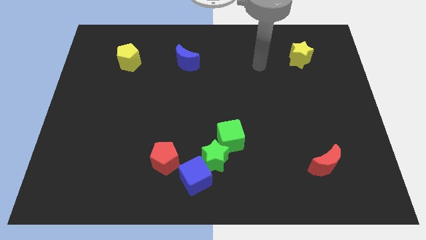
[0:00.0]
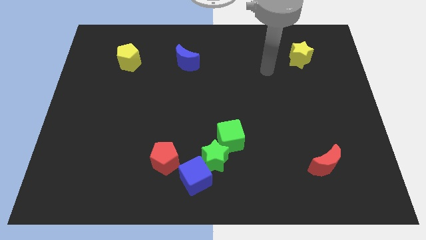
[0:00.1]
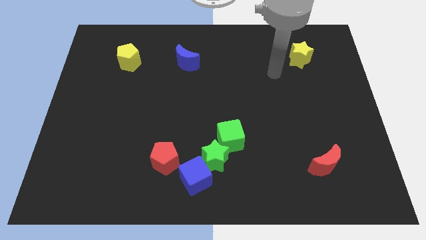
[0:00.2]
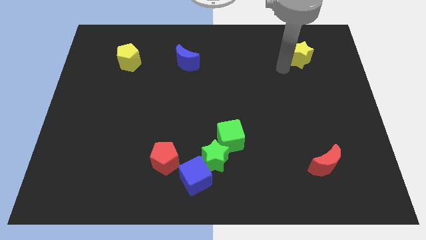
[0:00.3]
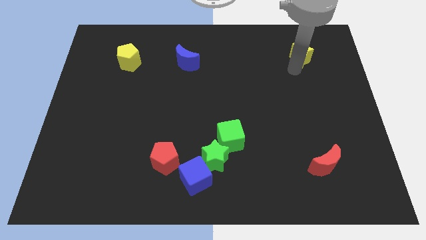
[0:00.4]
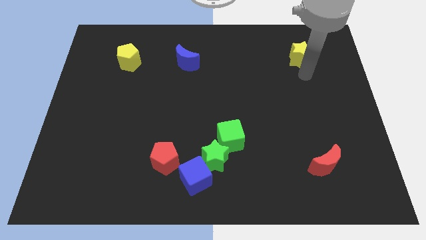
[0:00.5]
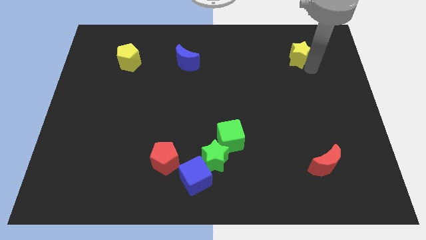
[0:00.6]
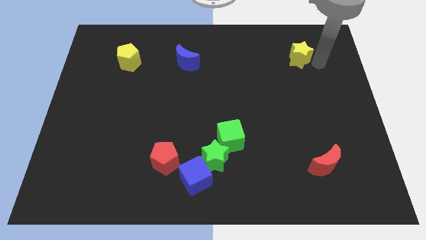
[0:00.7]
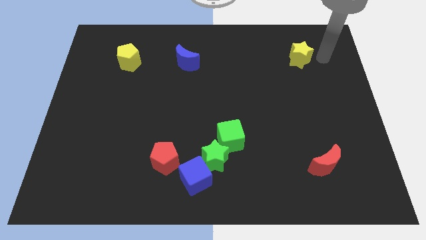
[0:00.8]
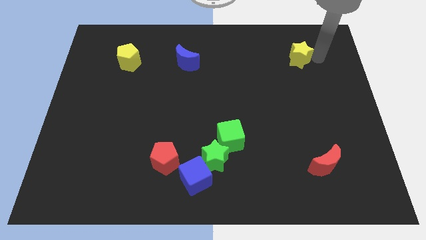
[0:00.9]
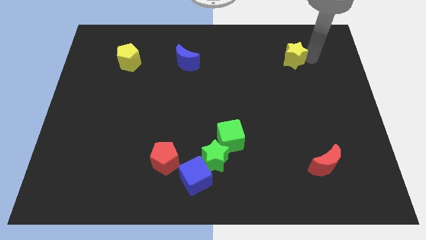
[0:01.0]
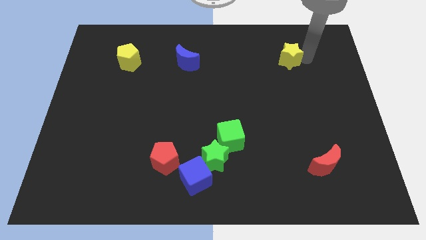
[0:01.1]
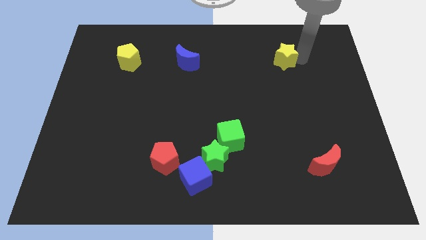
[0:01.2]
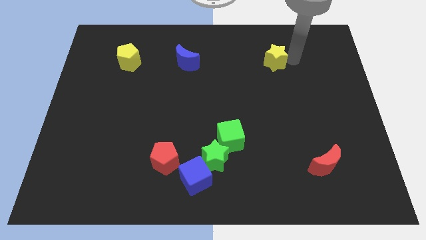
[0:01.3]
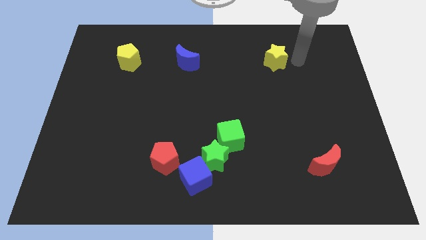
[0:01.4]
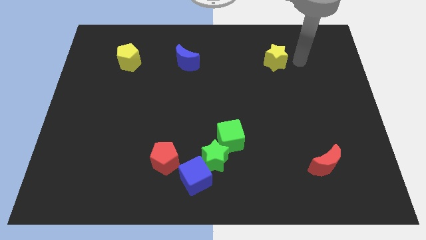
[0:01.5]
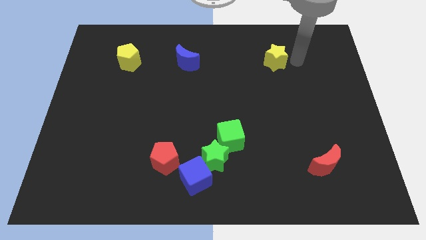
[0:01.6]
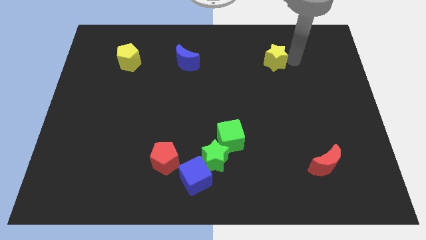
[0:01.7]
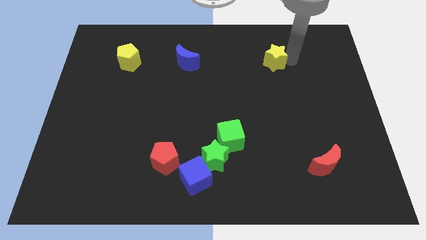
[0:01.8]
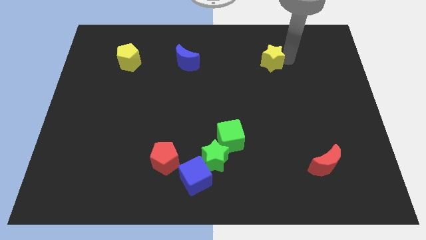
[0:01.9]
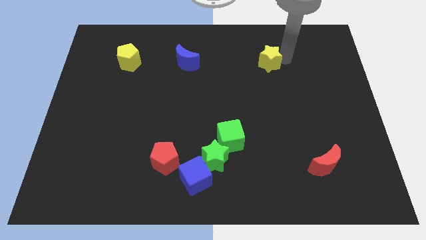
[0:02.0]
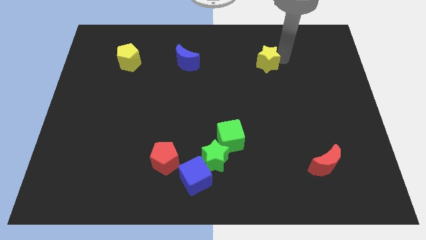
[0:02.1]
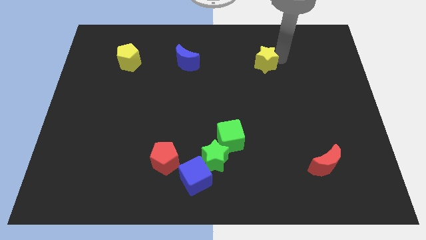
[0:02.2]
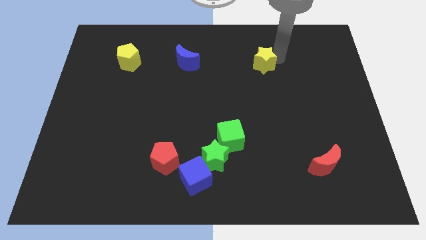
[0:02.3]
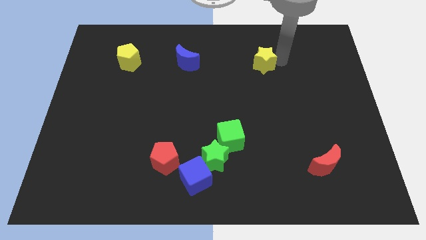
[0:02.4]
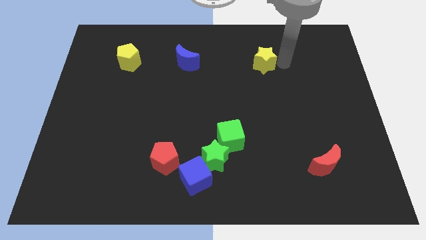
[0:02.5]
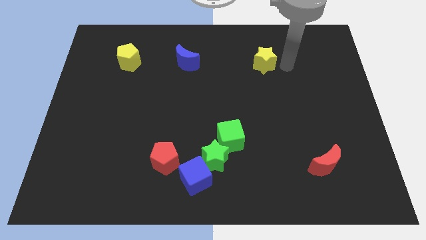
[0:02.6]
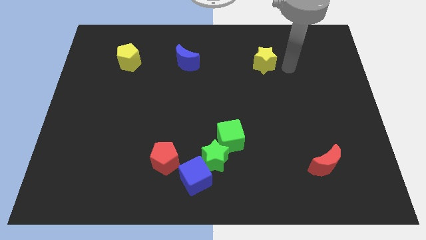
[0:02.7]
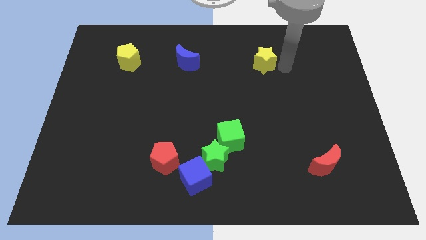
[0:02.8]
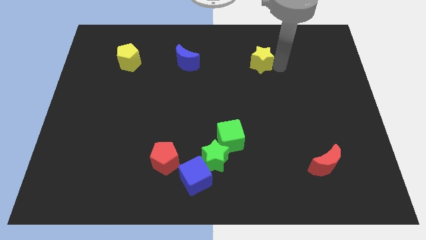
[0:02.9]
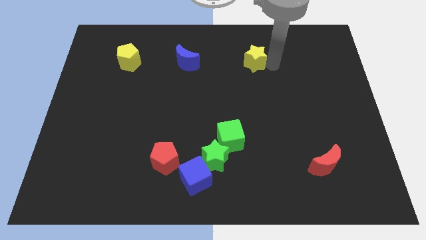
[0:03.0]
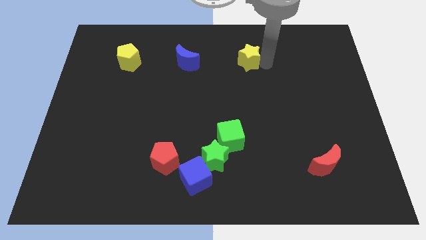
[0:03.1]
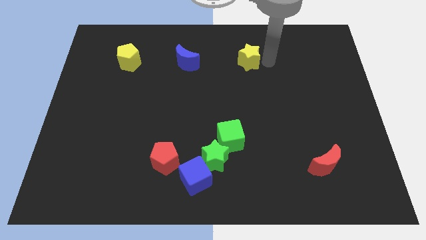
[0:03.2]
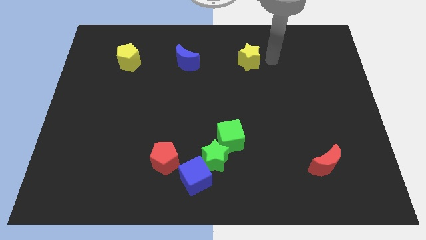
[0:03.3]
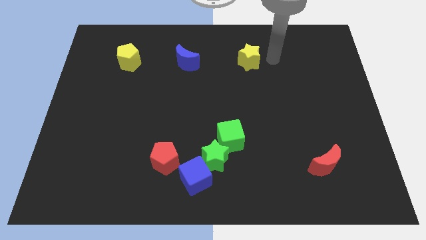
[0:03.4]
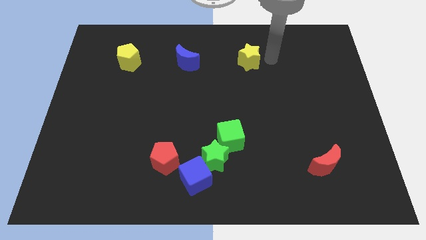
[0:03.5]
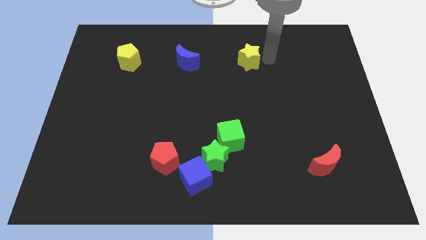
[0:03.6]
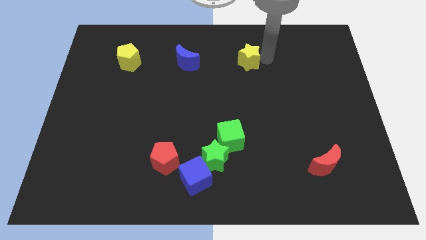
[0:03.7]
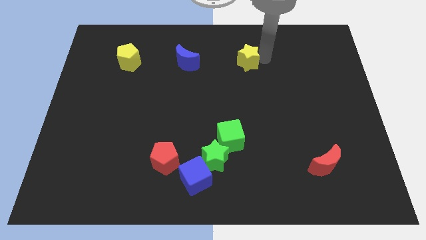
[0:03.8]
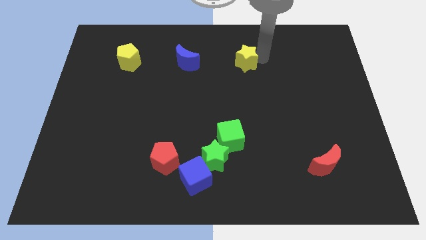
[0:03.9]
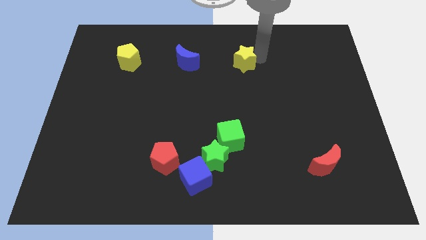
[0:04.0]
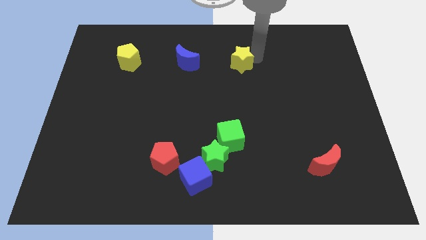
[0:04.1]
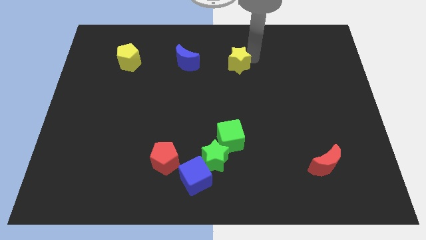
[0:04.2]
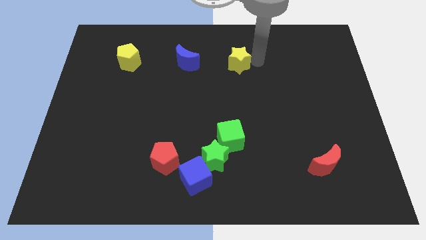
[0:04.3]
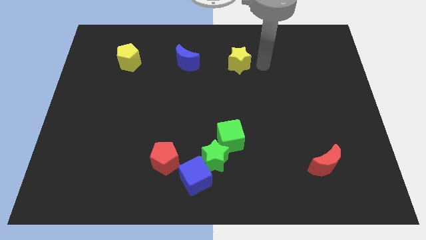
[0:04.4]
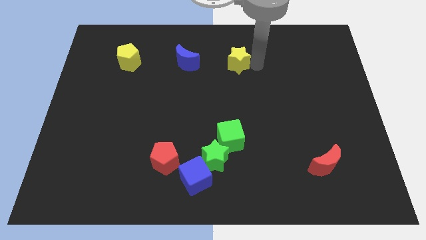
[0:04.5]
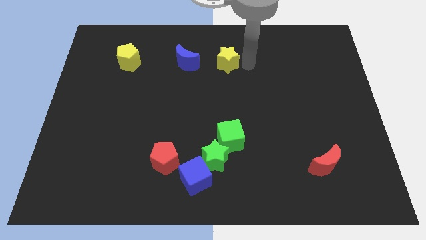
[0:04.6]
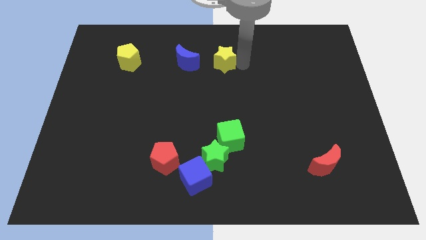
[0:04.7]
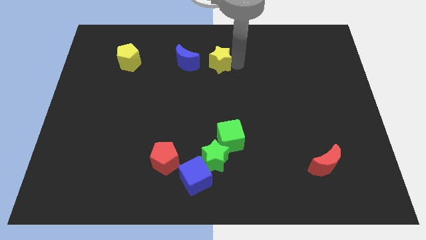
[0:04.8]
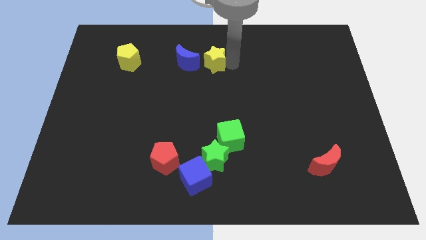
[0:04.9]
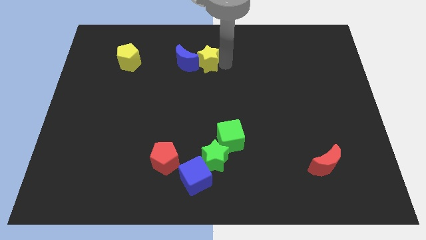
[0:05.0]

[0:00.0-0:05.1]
move the yellow star towards the blue moon

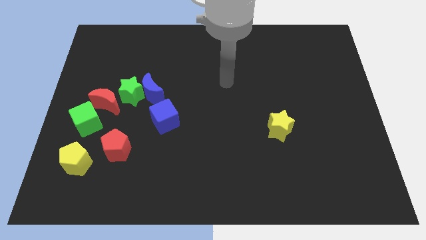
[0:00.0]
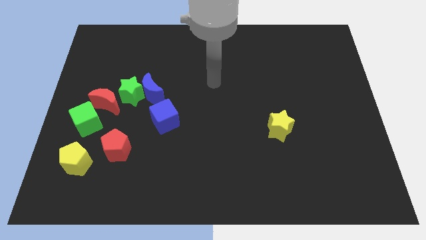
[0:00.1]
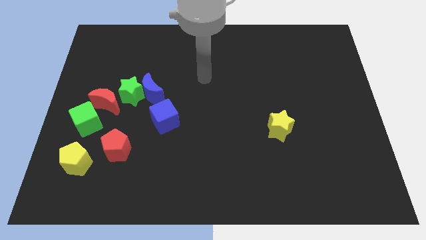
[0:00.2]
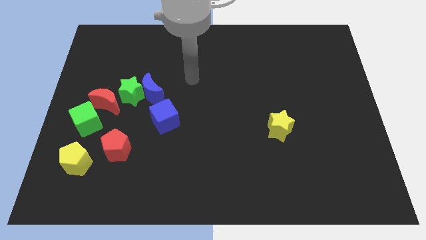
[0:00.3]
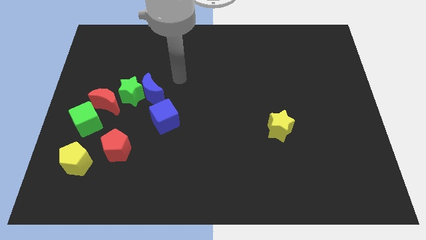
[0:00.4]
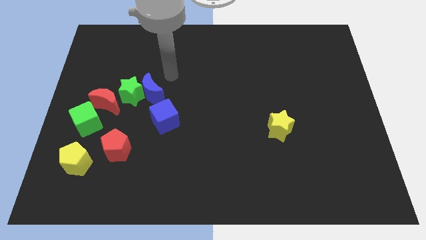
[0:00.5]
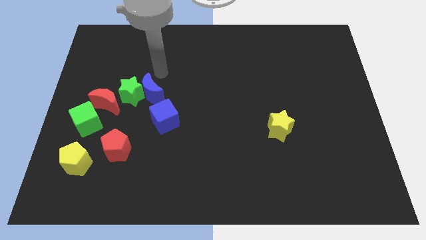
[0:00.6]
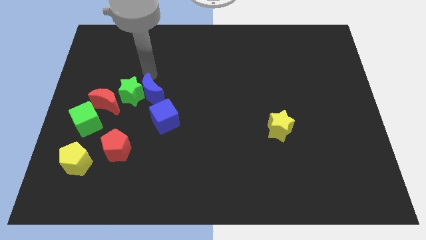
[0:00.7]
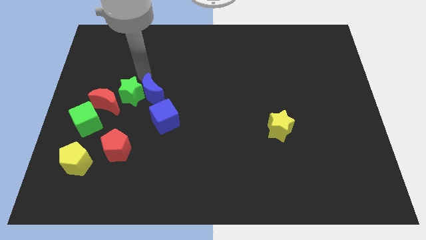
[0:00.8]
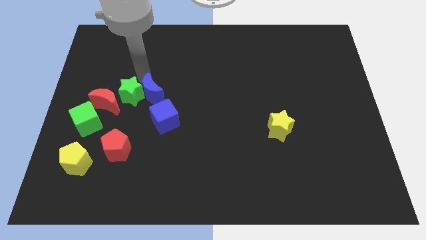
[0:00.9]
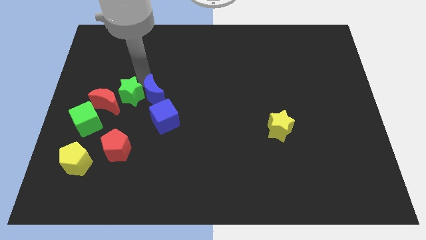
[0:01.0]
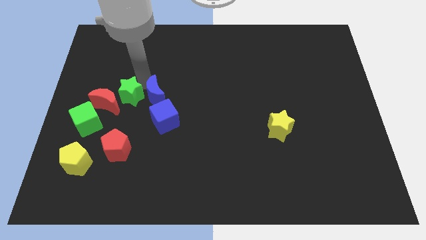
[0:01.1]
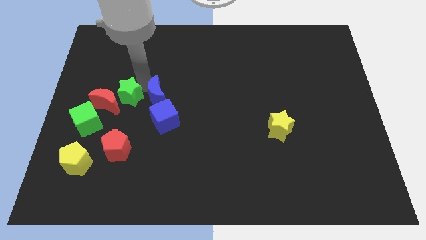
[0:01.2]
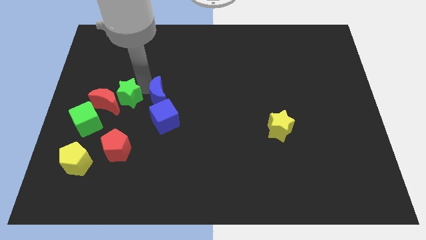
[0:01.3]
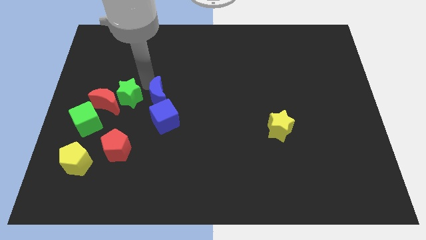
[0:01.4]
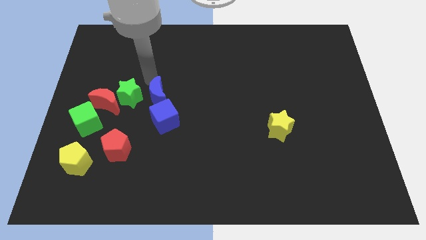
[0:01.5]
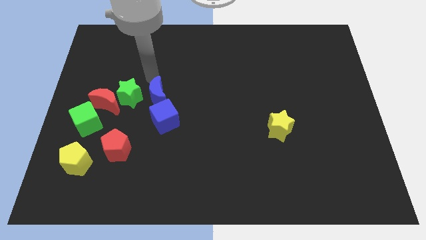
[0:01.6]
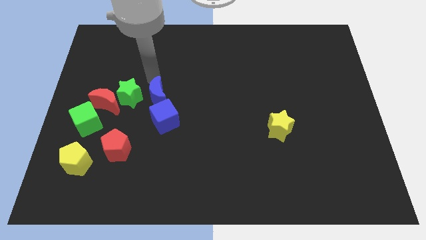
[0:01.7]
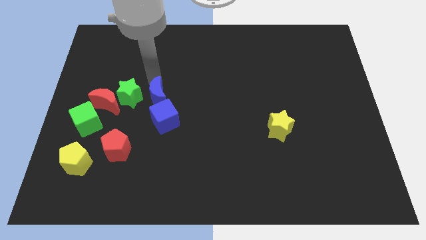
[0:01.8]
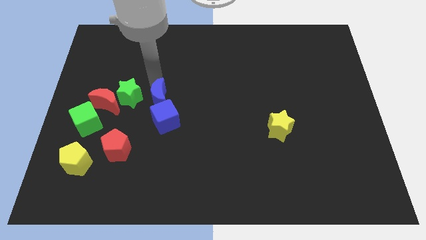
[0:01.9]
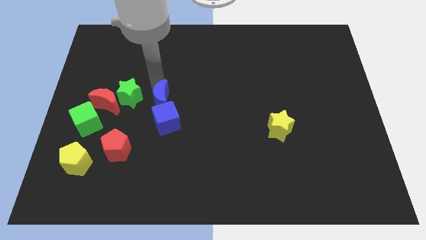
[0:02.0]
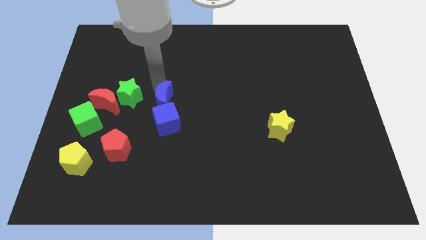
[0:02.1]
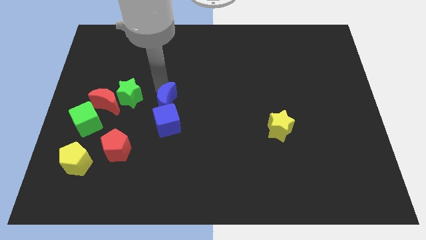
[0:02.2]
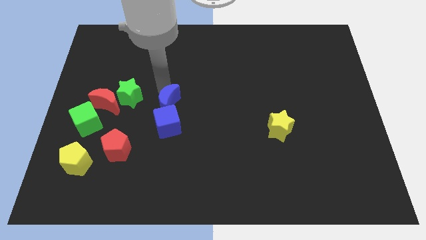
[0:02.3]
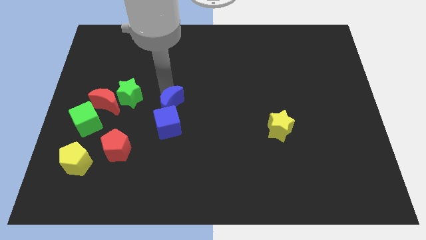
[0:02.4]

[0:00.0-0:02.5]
push the blue moon next to the blue cube

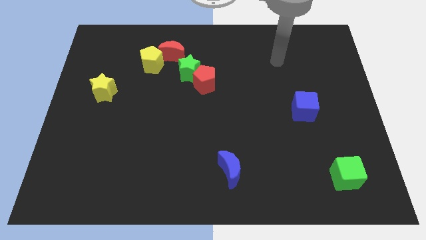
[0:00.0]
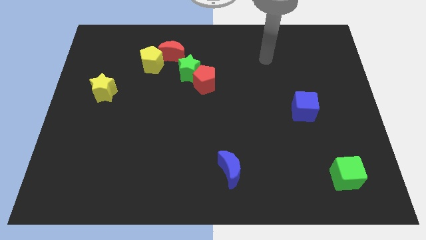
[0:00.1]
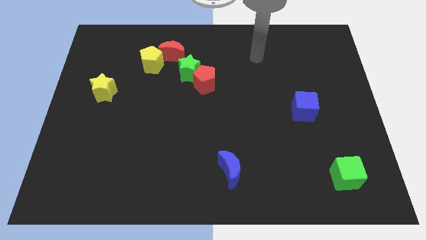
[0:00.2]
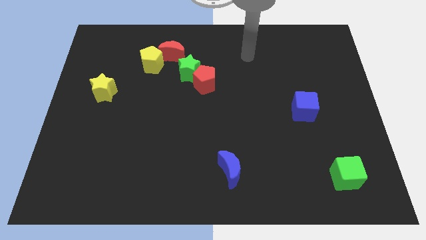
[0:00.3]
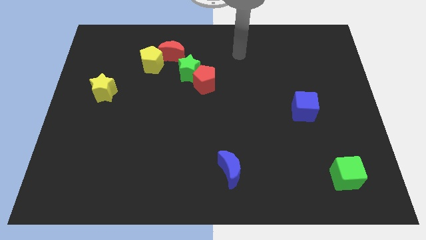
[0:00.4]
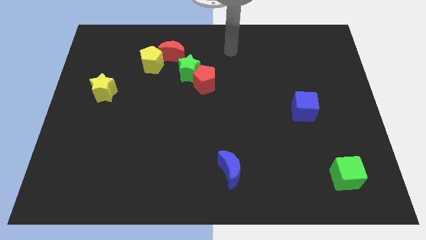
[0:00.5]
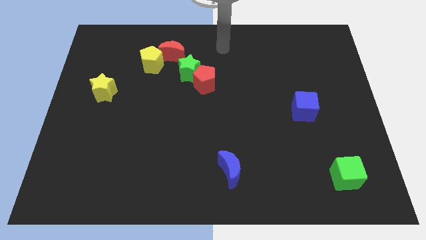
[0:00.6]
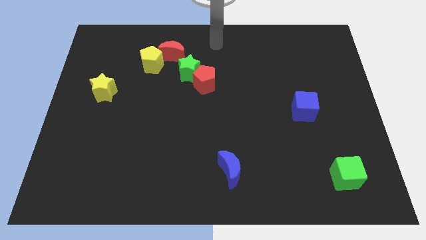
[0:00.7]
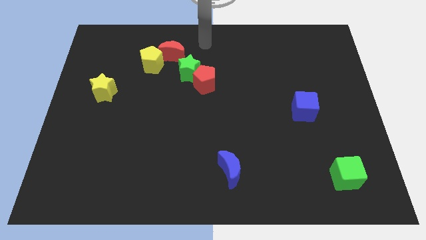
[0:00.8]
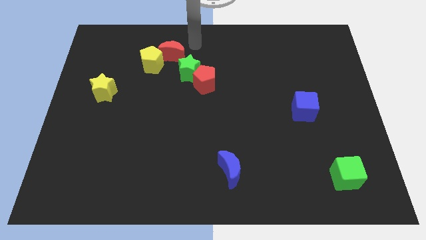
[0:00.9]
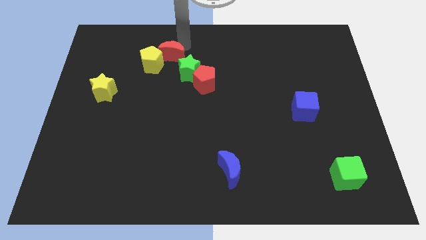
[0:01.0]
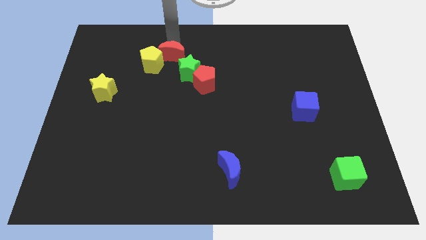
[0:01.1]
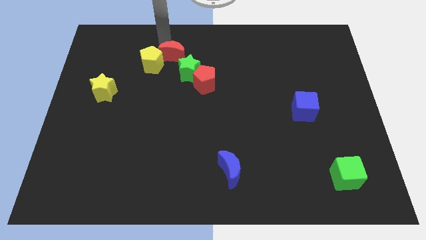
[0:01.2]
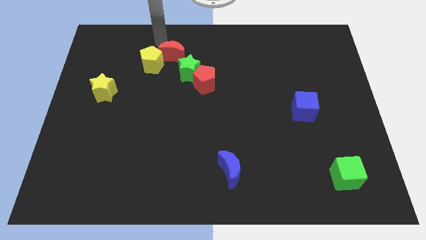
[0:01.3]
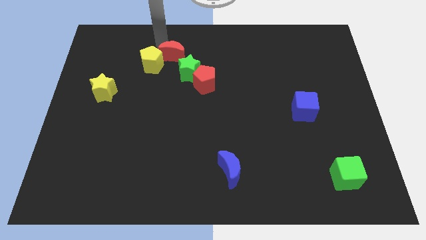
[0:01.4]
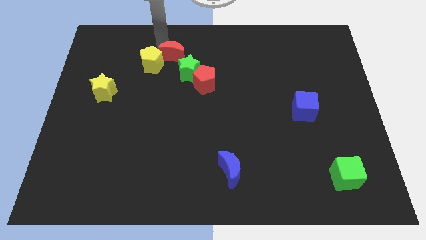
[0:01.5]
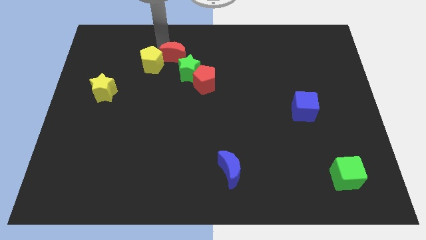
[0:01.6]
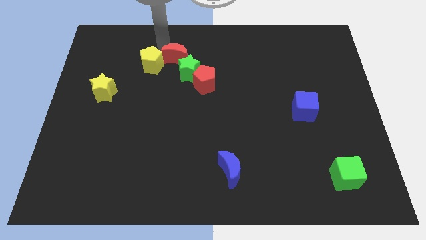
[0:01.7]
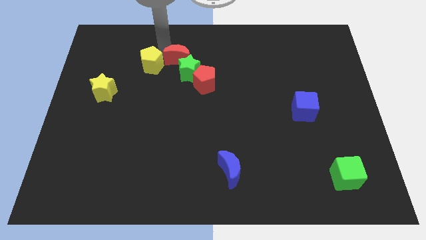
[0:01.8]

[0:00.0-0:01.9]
put the red moon close to the green star
